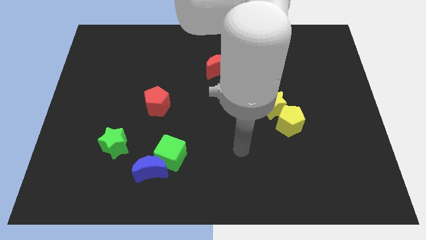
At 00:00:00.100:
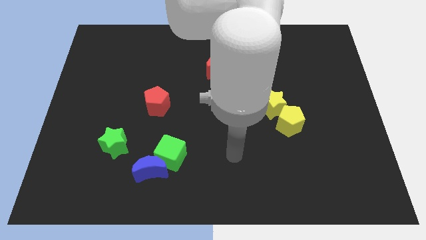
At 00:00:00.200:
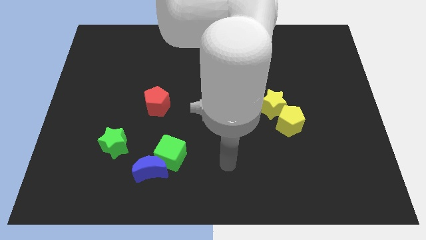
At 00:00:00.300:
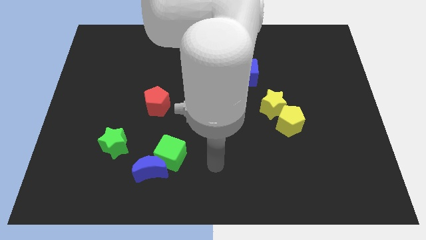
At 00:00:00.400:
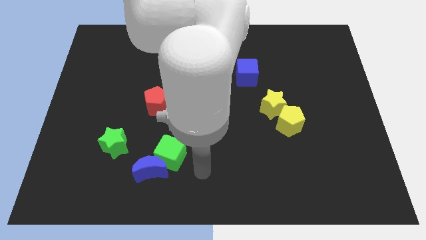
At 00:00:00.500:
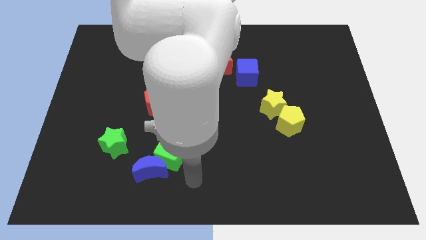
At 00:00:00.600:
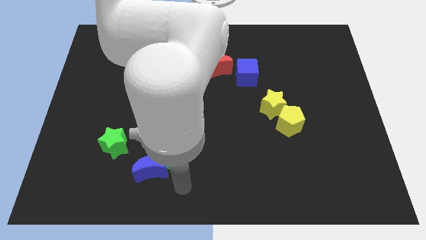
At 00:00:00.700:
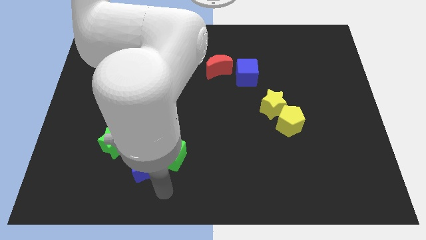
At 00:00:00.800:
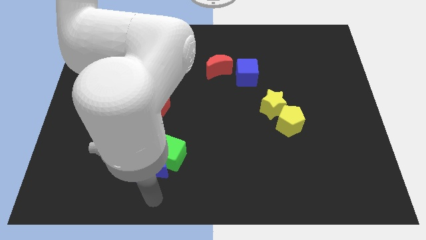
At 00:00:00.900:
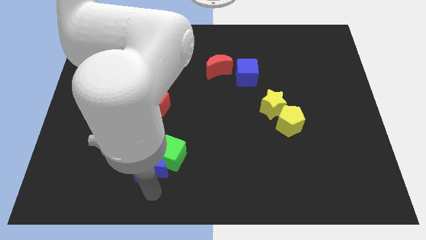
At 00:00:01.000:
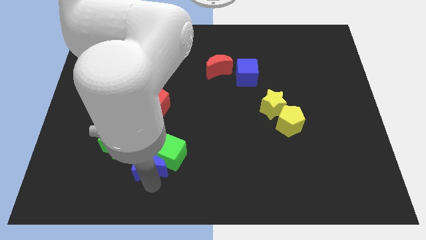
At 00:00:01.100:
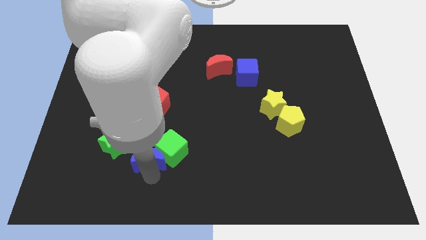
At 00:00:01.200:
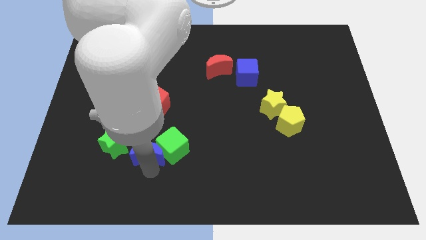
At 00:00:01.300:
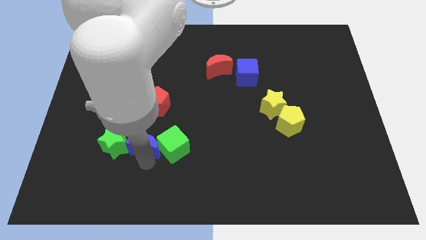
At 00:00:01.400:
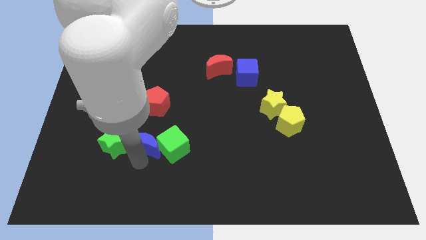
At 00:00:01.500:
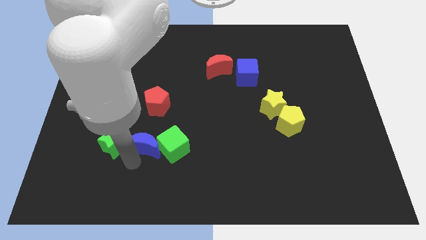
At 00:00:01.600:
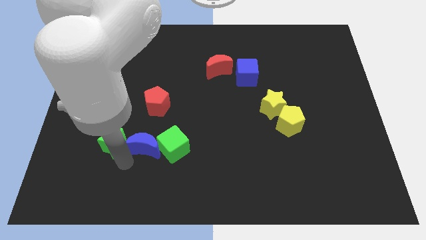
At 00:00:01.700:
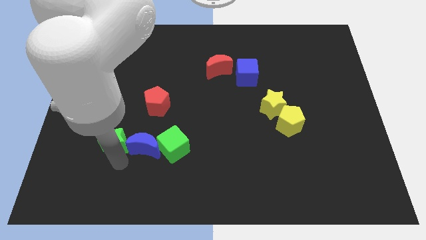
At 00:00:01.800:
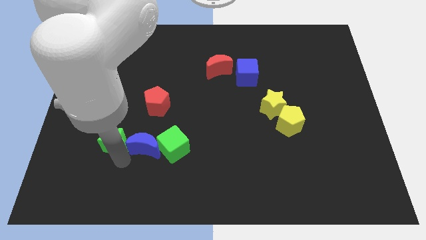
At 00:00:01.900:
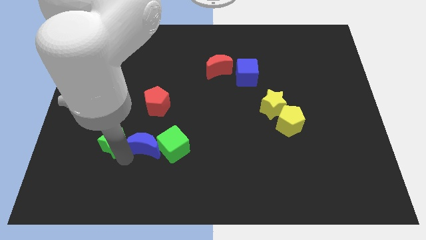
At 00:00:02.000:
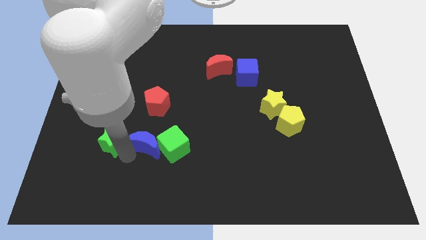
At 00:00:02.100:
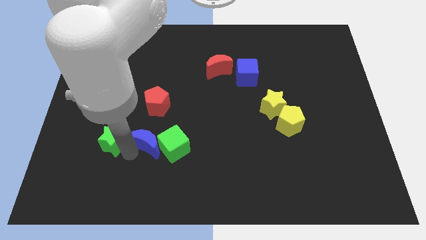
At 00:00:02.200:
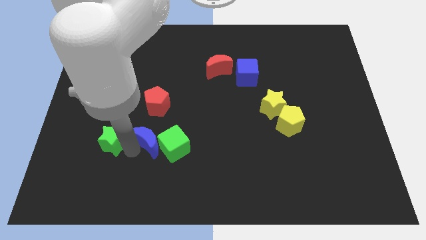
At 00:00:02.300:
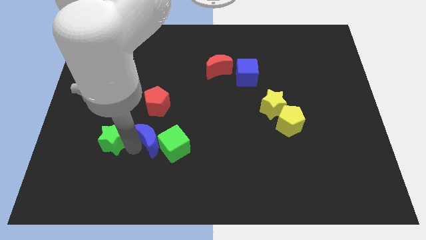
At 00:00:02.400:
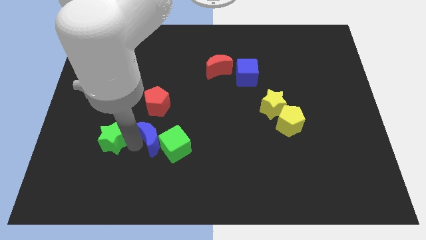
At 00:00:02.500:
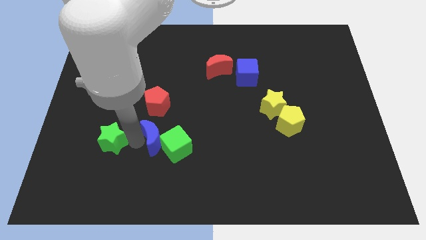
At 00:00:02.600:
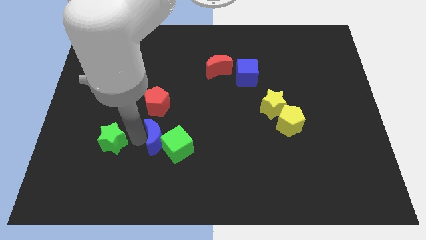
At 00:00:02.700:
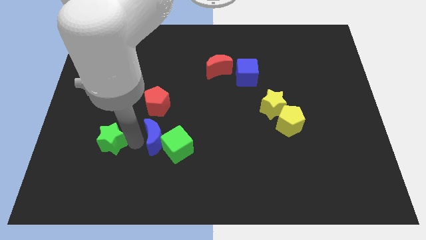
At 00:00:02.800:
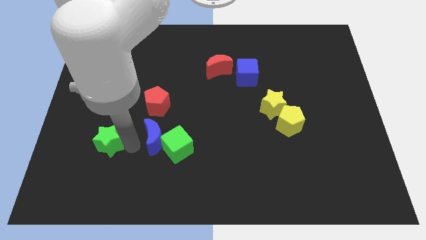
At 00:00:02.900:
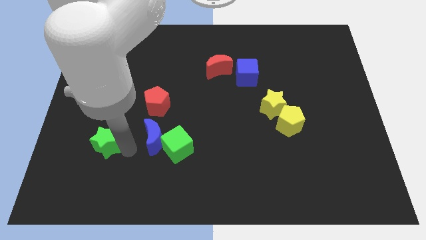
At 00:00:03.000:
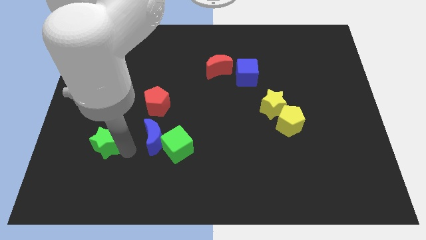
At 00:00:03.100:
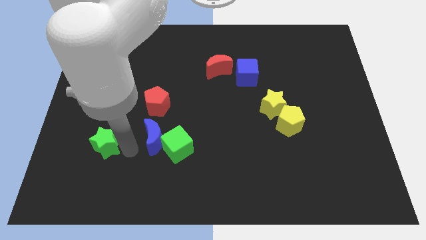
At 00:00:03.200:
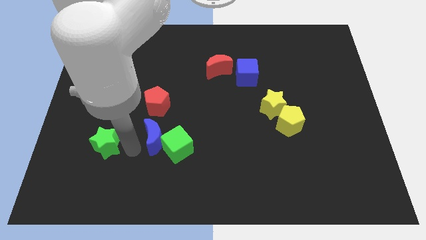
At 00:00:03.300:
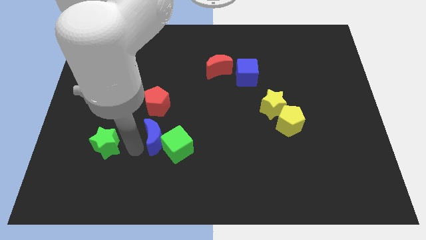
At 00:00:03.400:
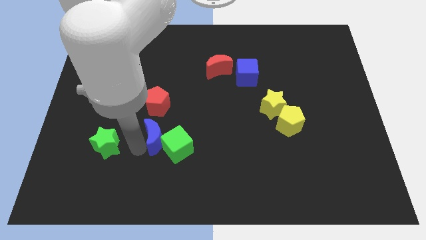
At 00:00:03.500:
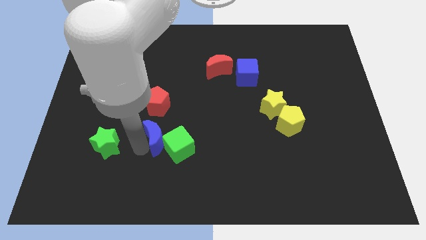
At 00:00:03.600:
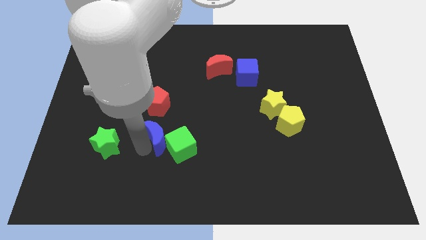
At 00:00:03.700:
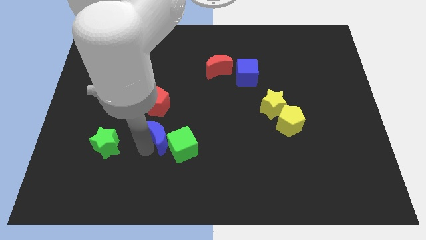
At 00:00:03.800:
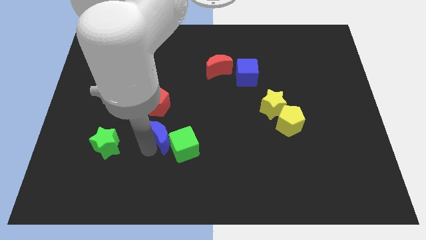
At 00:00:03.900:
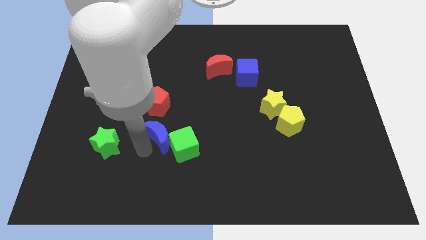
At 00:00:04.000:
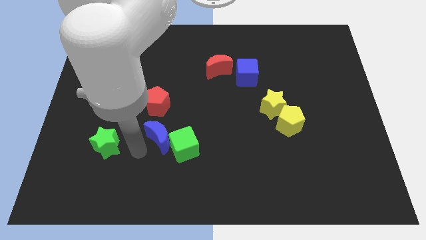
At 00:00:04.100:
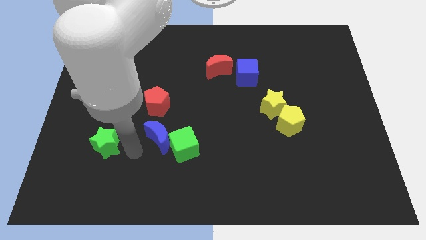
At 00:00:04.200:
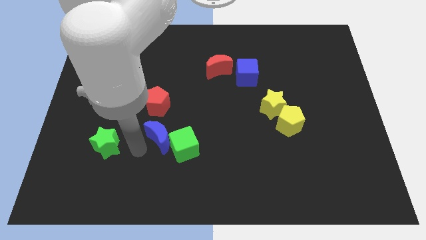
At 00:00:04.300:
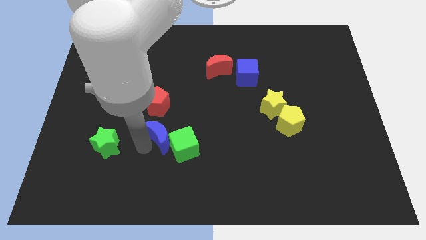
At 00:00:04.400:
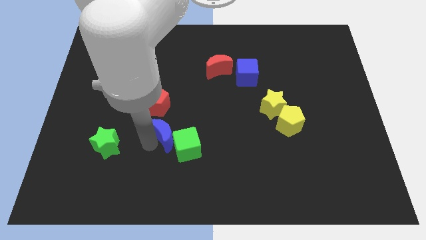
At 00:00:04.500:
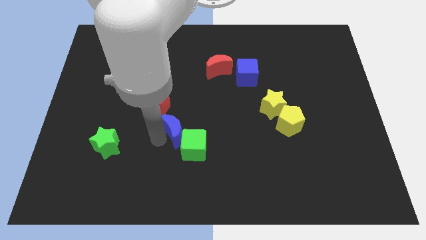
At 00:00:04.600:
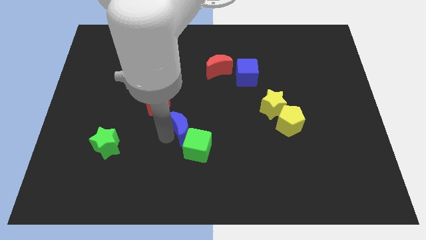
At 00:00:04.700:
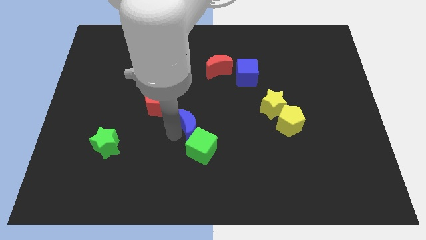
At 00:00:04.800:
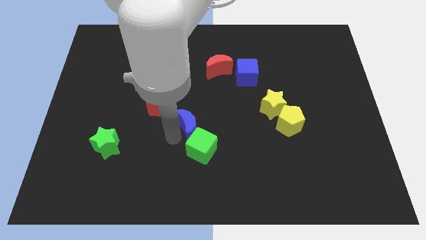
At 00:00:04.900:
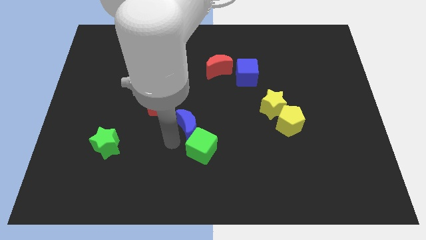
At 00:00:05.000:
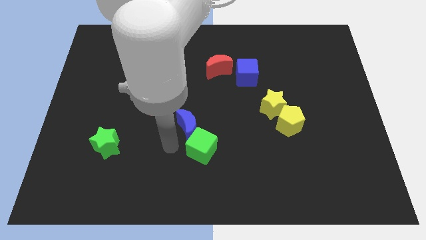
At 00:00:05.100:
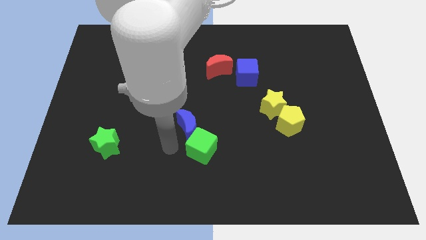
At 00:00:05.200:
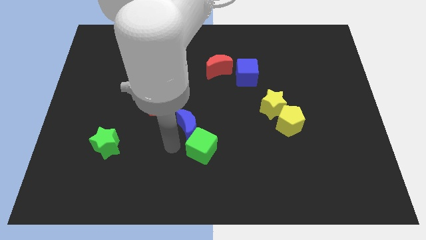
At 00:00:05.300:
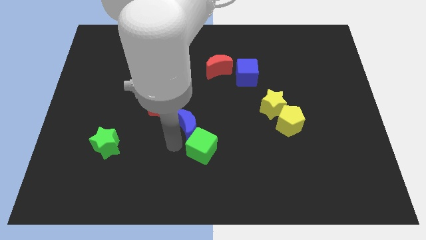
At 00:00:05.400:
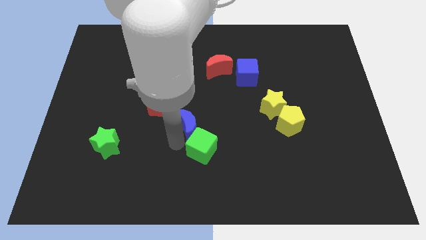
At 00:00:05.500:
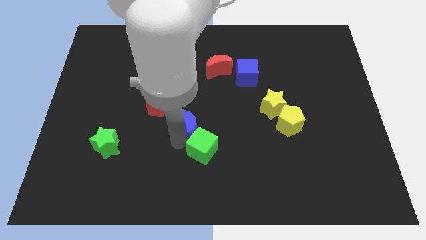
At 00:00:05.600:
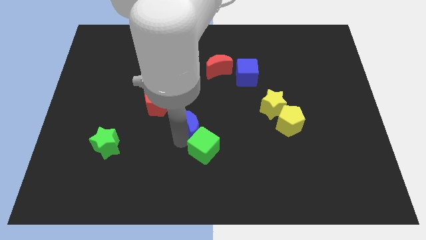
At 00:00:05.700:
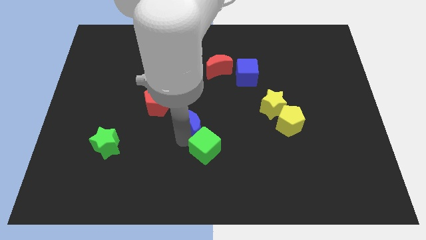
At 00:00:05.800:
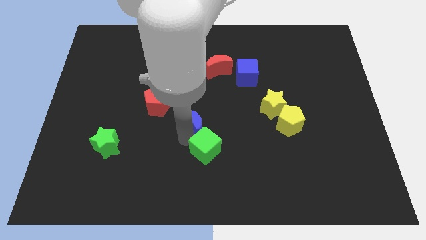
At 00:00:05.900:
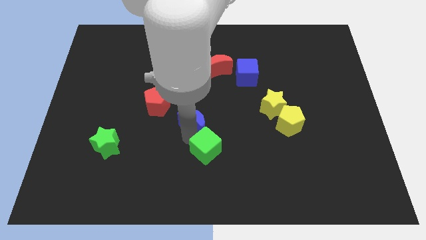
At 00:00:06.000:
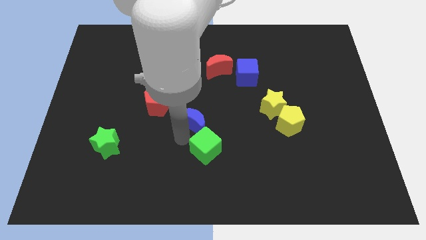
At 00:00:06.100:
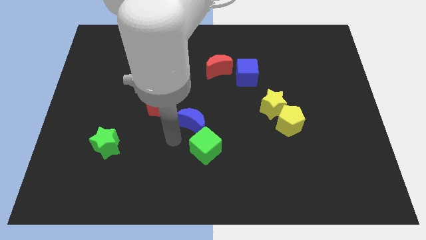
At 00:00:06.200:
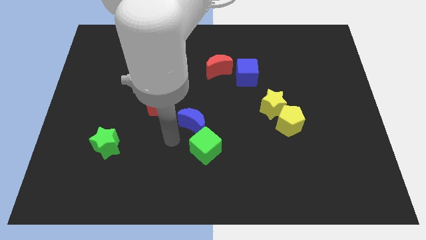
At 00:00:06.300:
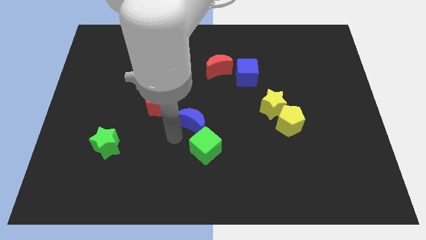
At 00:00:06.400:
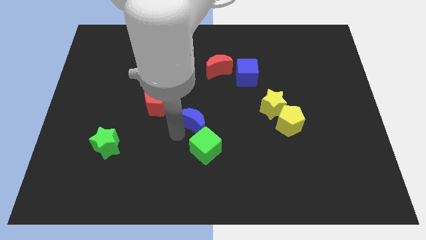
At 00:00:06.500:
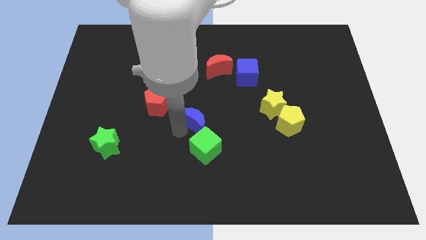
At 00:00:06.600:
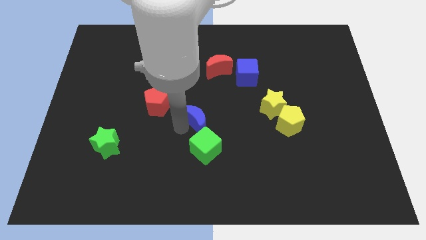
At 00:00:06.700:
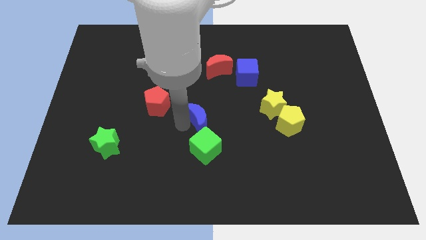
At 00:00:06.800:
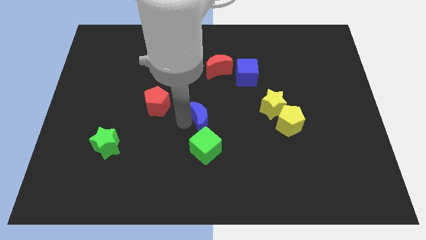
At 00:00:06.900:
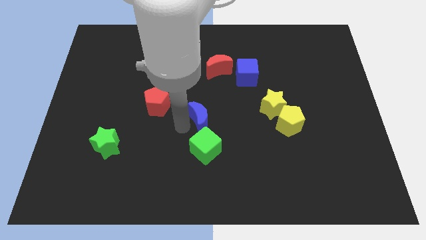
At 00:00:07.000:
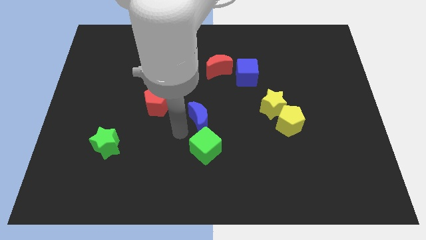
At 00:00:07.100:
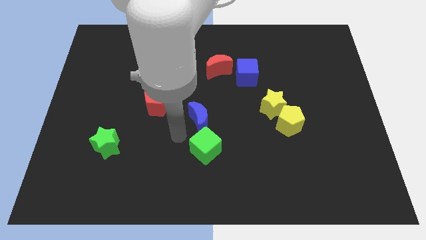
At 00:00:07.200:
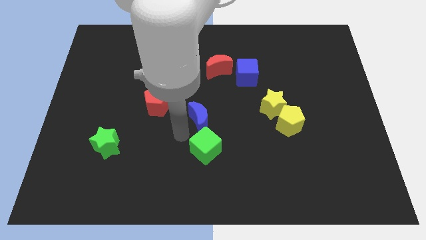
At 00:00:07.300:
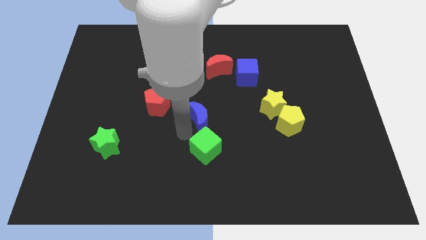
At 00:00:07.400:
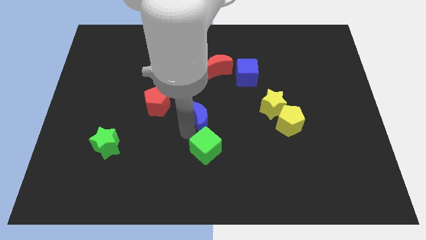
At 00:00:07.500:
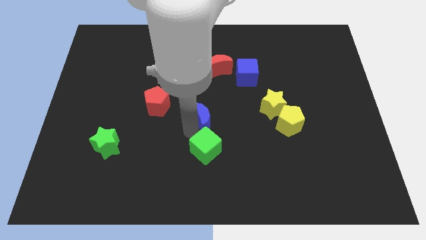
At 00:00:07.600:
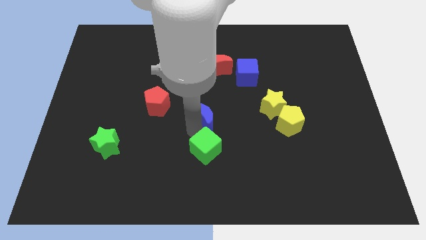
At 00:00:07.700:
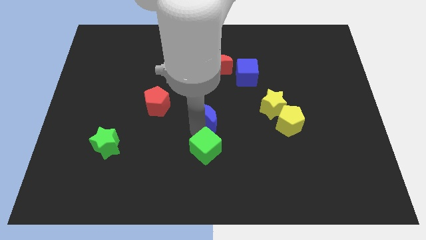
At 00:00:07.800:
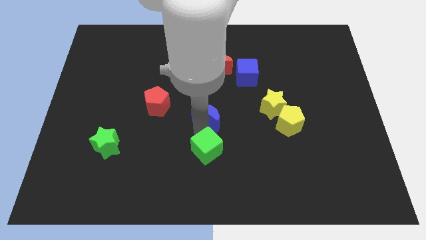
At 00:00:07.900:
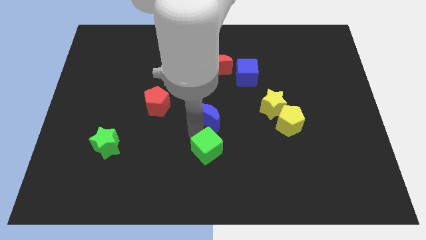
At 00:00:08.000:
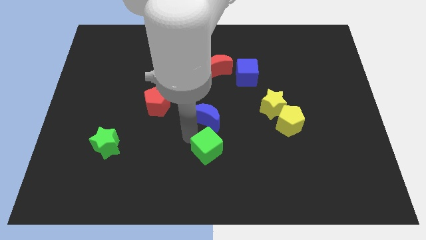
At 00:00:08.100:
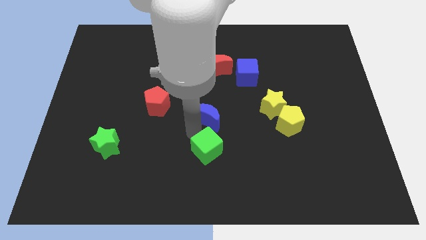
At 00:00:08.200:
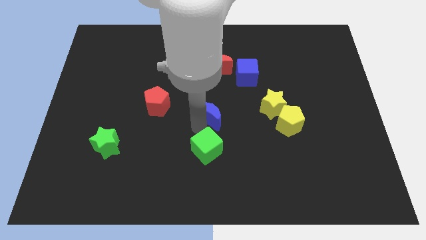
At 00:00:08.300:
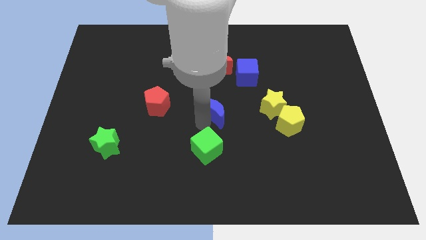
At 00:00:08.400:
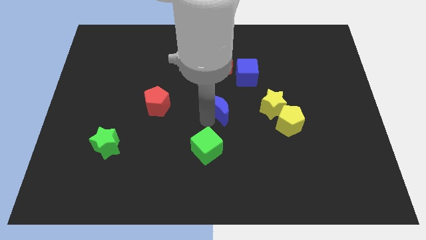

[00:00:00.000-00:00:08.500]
move the blue moon up and to the right diagonally
